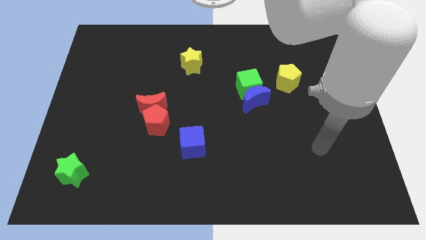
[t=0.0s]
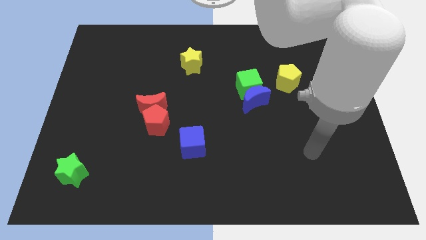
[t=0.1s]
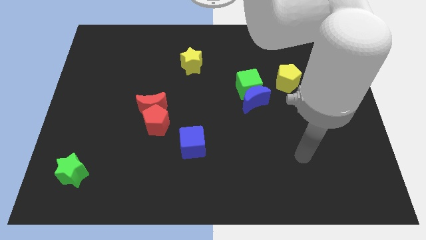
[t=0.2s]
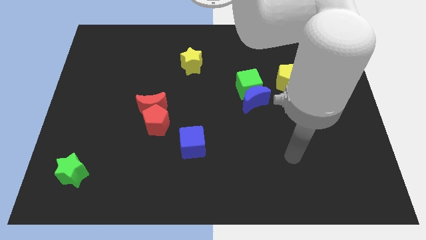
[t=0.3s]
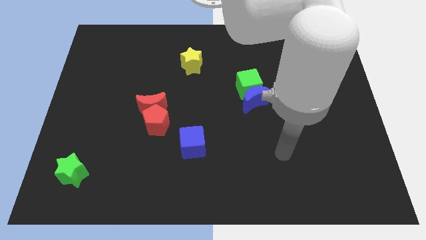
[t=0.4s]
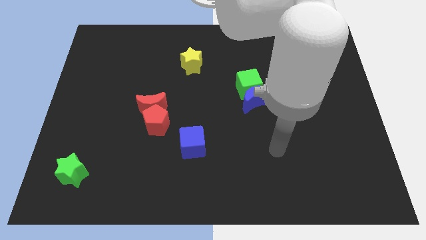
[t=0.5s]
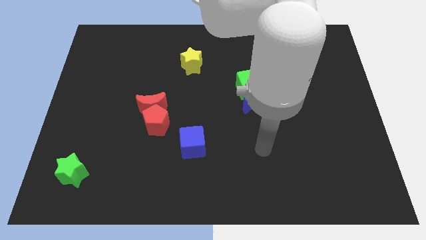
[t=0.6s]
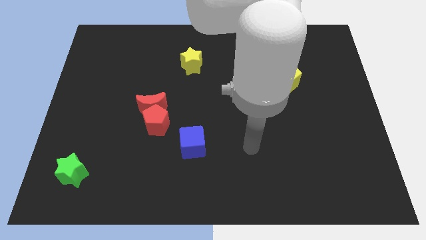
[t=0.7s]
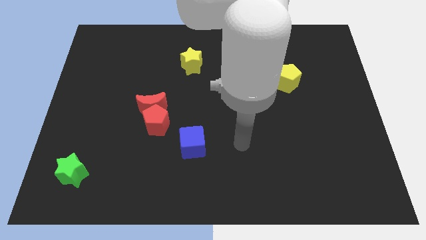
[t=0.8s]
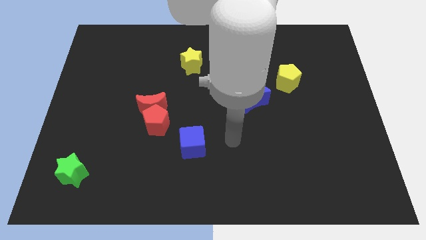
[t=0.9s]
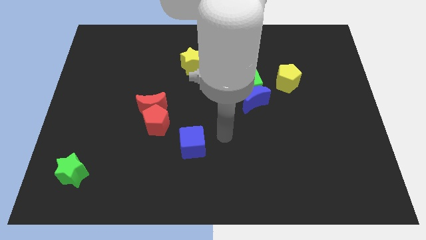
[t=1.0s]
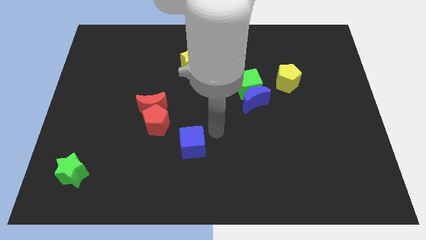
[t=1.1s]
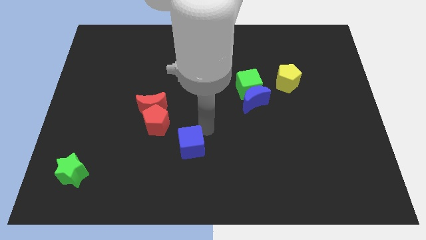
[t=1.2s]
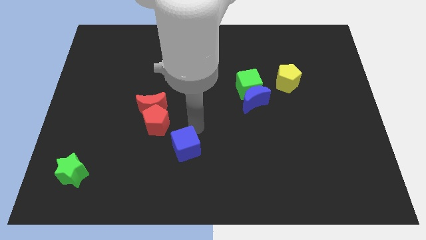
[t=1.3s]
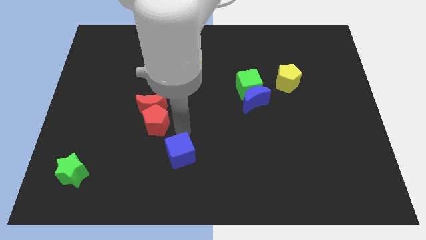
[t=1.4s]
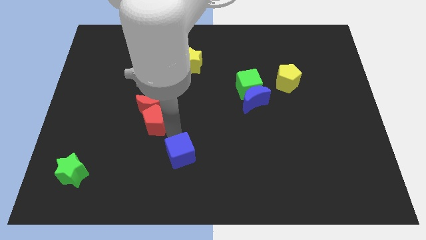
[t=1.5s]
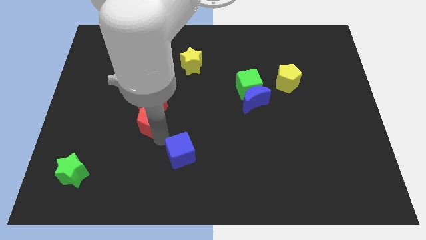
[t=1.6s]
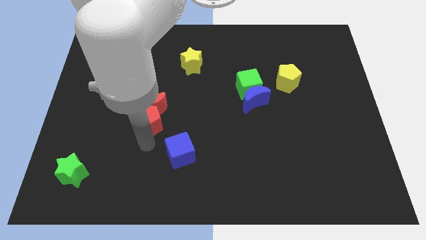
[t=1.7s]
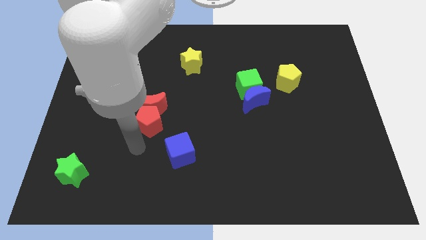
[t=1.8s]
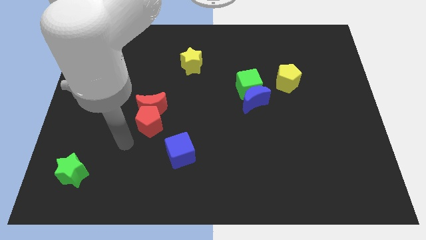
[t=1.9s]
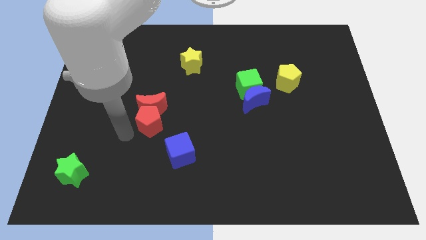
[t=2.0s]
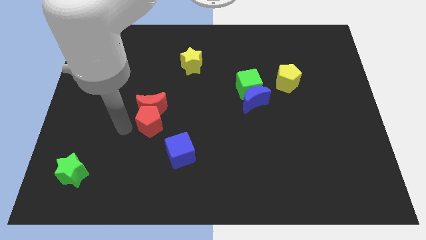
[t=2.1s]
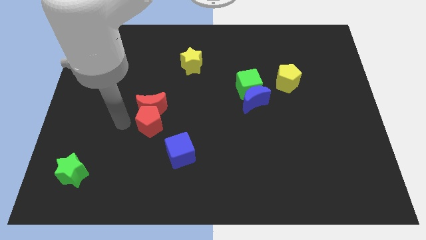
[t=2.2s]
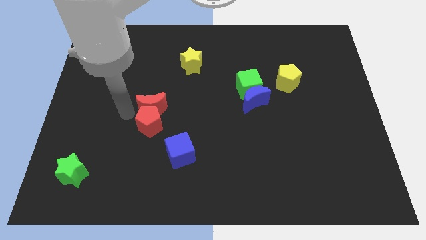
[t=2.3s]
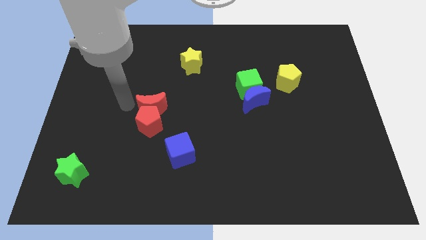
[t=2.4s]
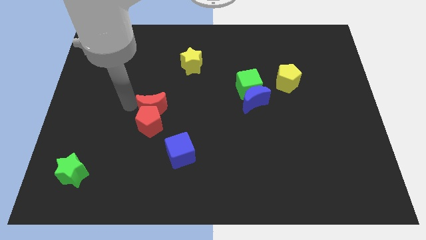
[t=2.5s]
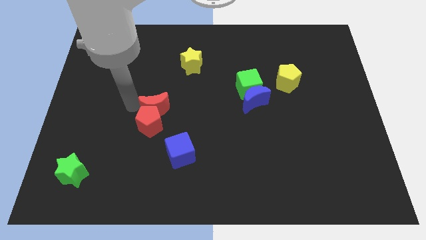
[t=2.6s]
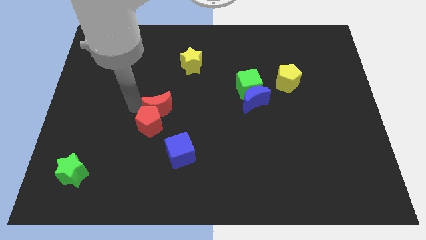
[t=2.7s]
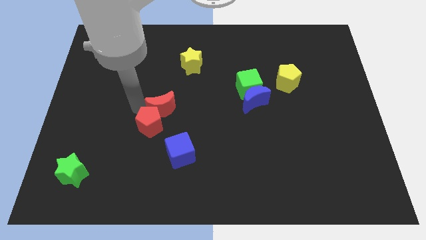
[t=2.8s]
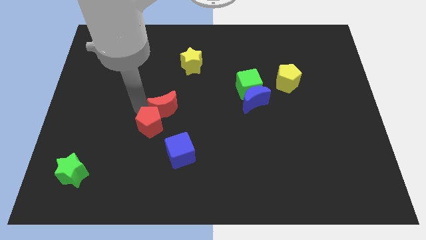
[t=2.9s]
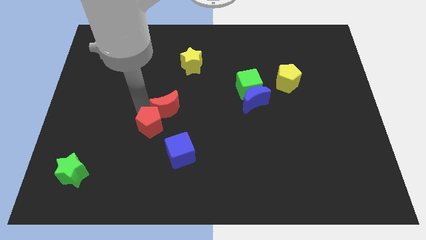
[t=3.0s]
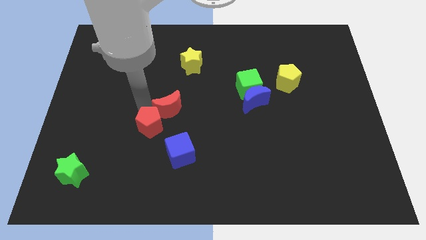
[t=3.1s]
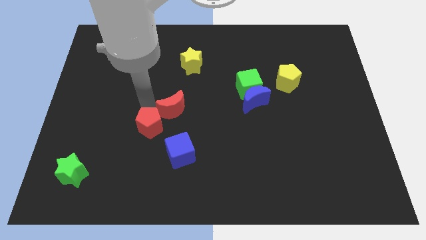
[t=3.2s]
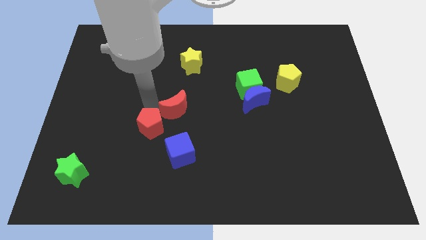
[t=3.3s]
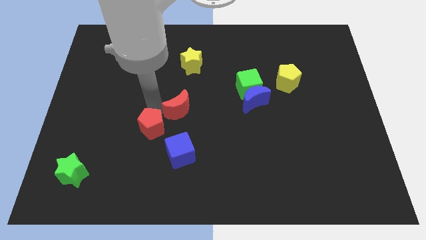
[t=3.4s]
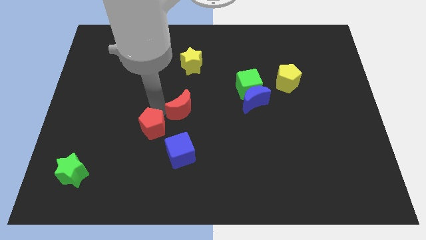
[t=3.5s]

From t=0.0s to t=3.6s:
push the red moon right a little

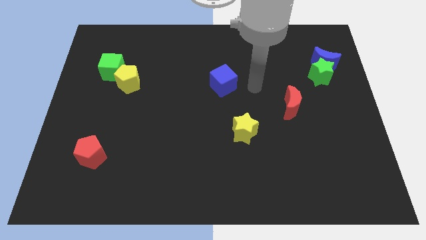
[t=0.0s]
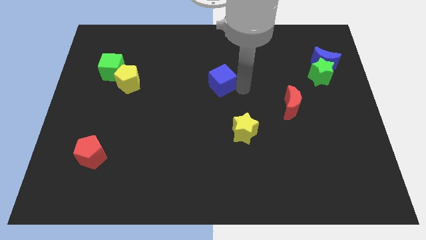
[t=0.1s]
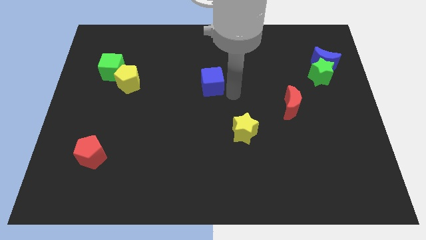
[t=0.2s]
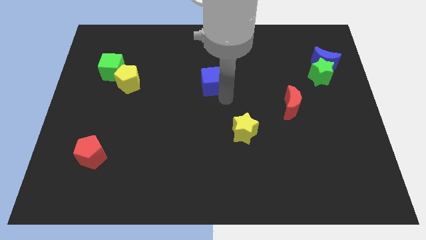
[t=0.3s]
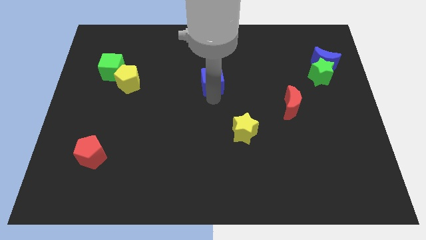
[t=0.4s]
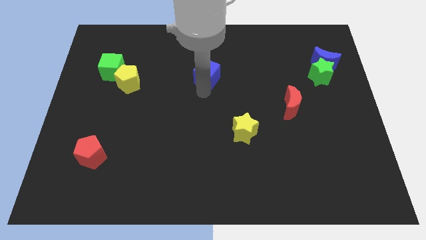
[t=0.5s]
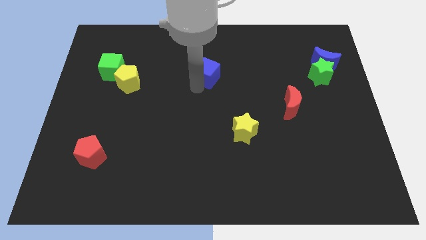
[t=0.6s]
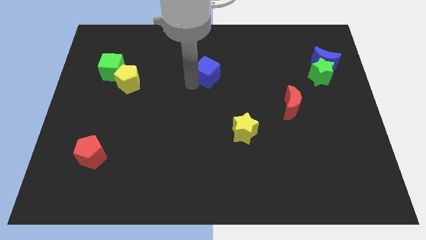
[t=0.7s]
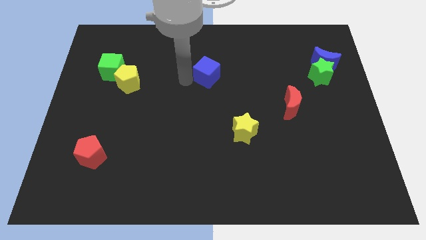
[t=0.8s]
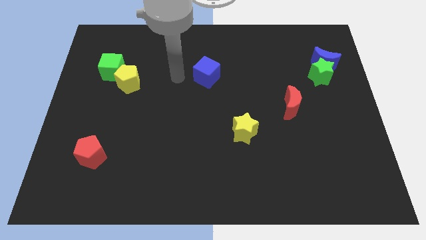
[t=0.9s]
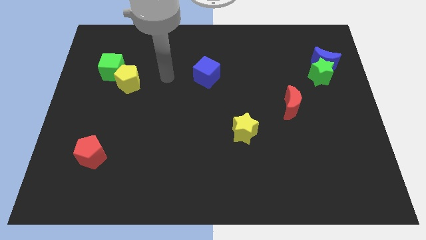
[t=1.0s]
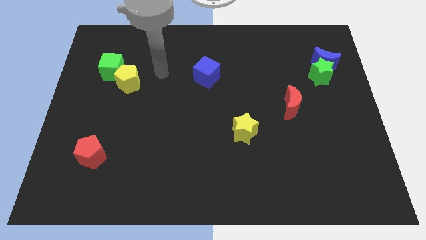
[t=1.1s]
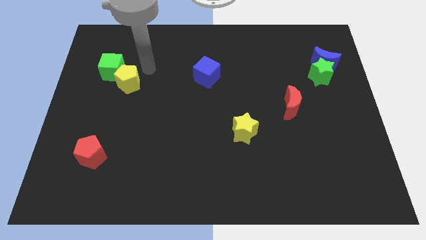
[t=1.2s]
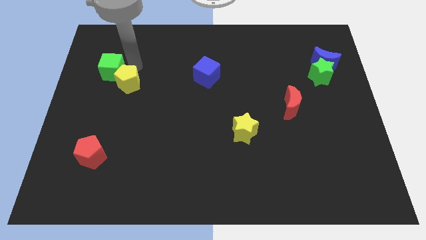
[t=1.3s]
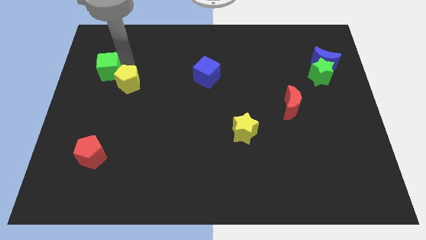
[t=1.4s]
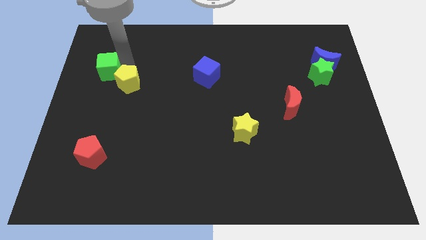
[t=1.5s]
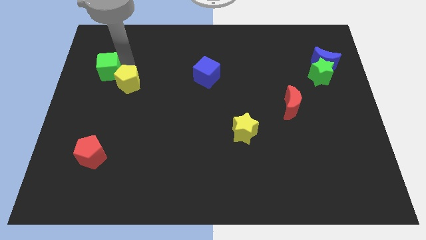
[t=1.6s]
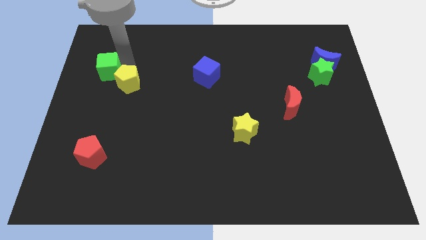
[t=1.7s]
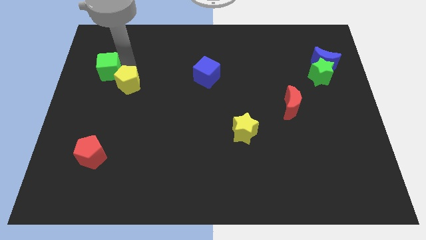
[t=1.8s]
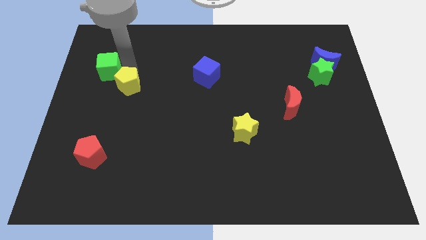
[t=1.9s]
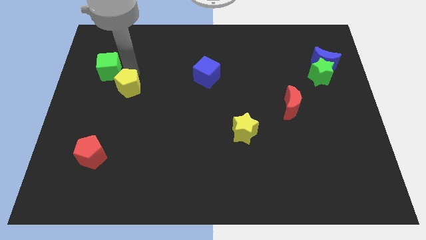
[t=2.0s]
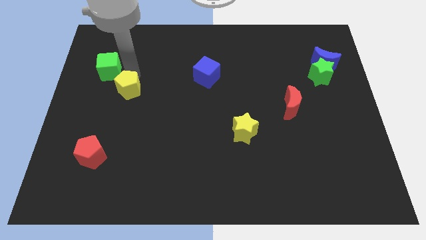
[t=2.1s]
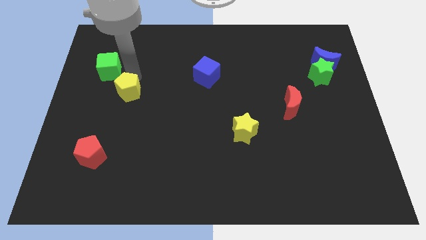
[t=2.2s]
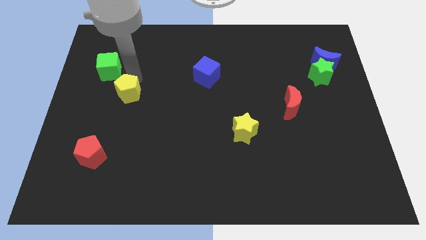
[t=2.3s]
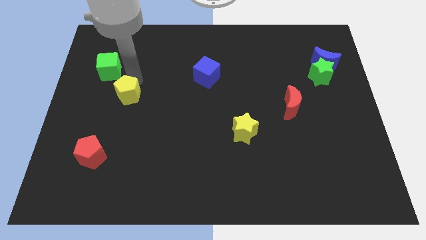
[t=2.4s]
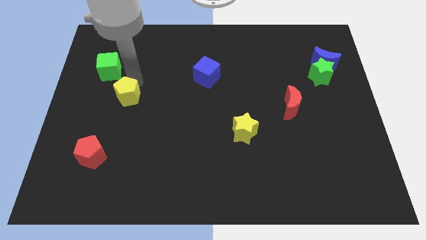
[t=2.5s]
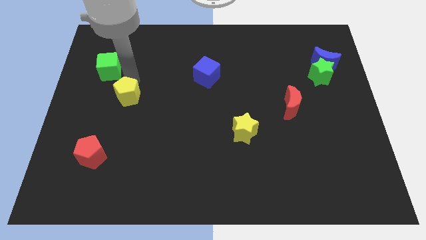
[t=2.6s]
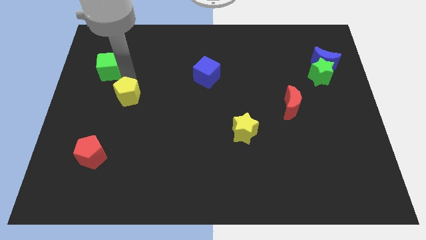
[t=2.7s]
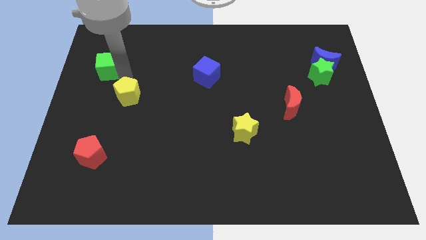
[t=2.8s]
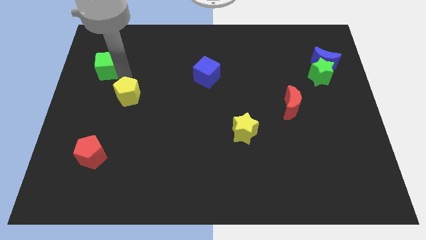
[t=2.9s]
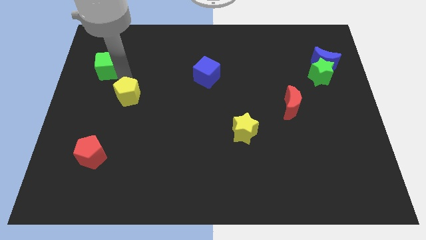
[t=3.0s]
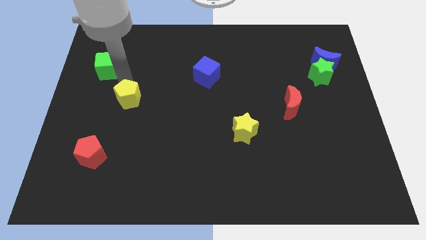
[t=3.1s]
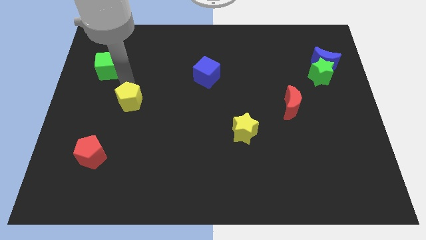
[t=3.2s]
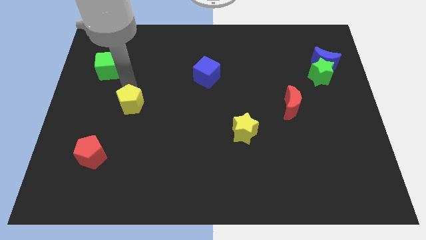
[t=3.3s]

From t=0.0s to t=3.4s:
push the yellow pentagon a little bit down

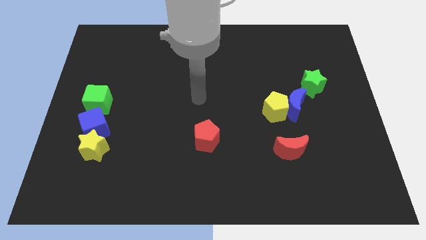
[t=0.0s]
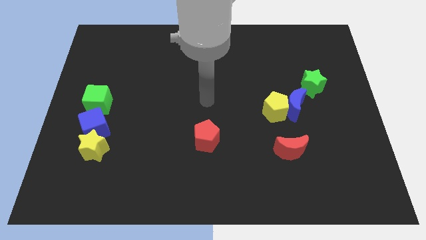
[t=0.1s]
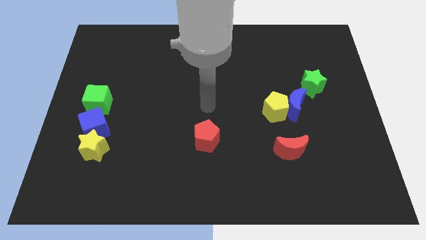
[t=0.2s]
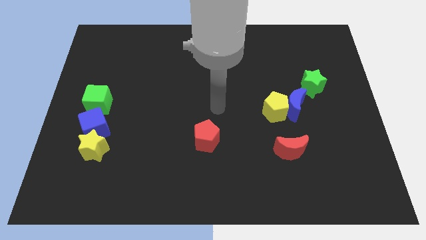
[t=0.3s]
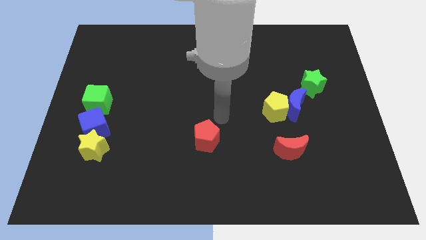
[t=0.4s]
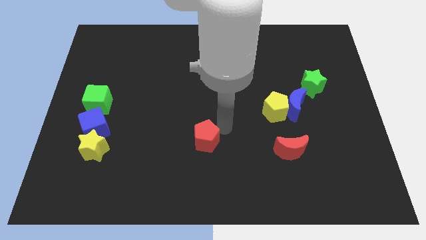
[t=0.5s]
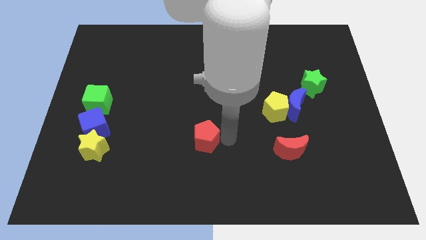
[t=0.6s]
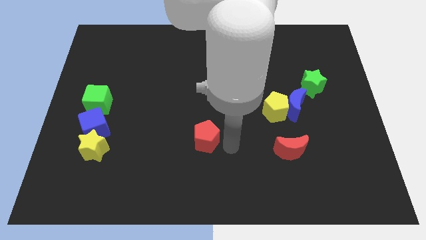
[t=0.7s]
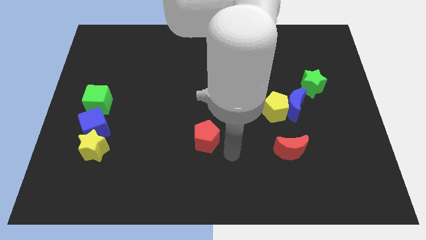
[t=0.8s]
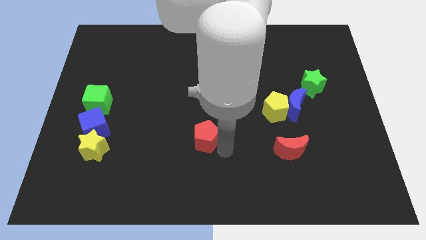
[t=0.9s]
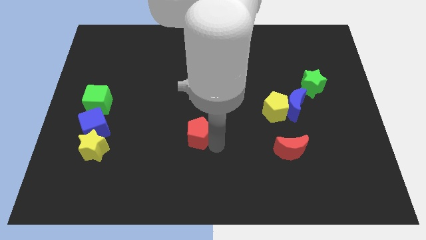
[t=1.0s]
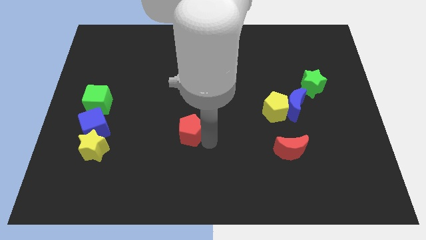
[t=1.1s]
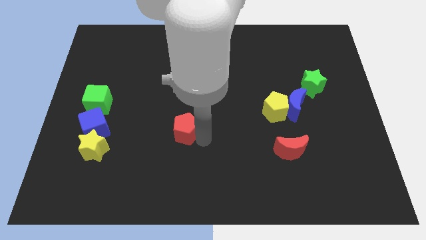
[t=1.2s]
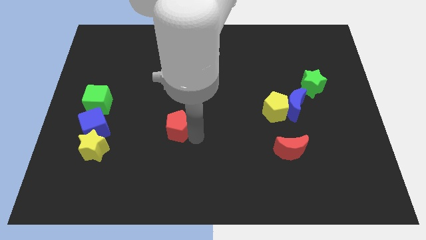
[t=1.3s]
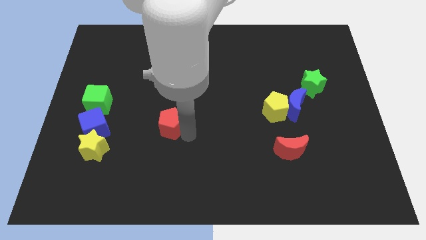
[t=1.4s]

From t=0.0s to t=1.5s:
push the red pentagon up and then left somewhat
